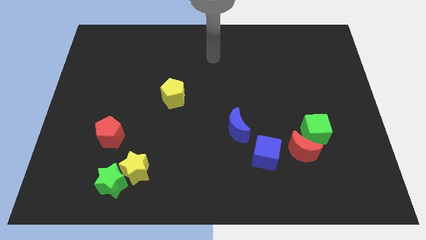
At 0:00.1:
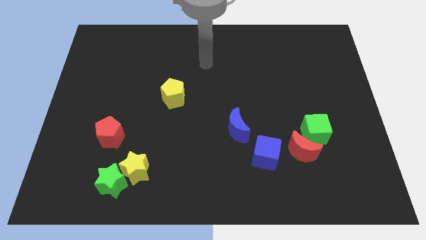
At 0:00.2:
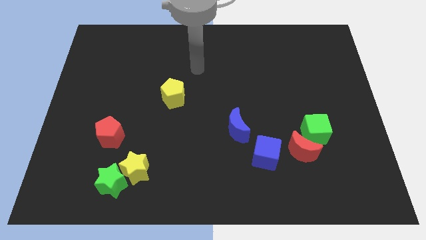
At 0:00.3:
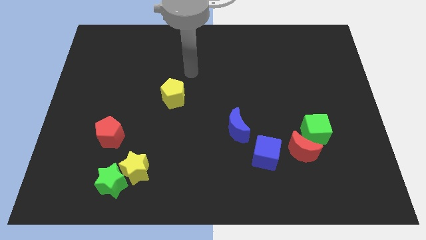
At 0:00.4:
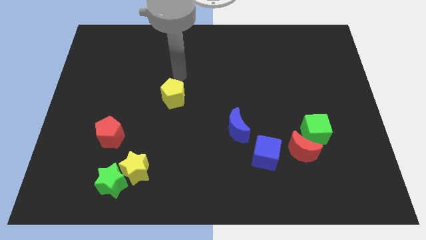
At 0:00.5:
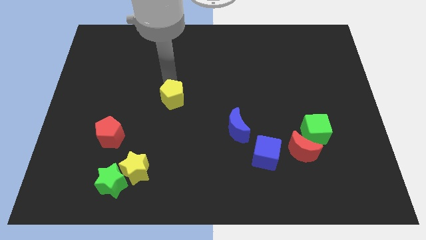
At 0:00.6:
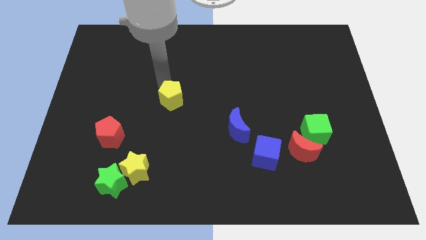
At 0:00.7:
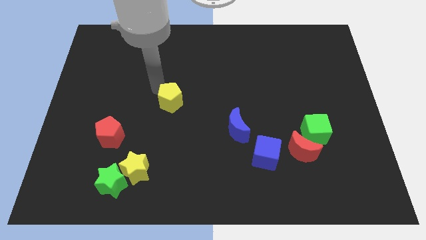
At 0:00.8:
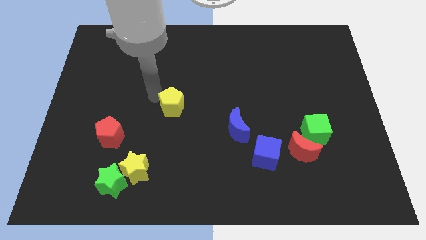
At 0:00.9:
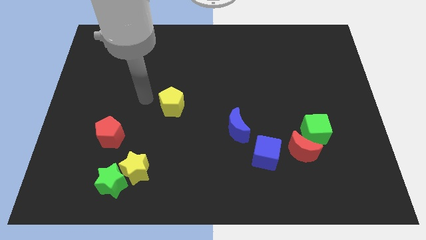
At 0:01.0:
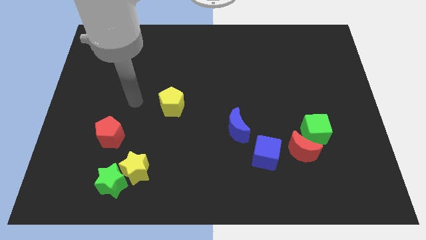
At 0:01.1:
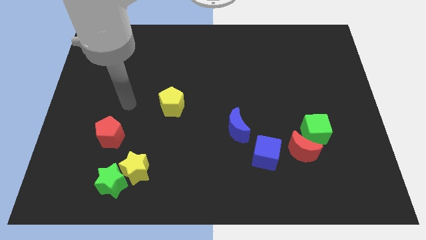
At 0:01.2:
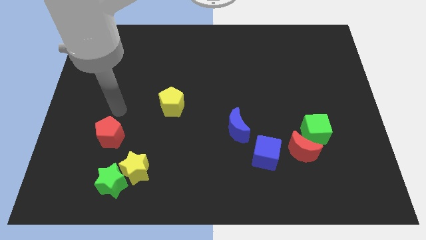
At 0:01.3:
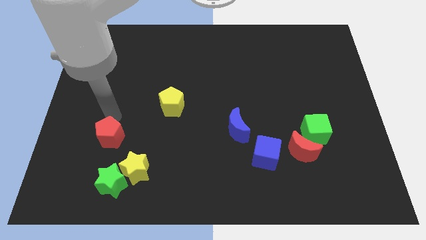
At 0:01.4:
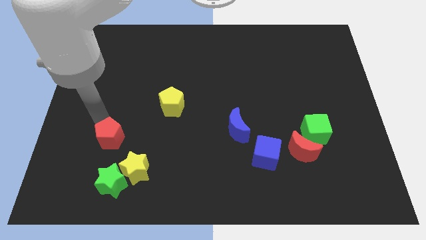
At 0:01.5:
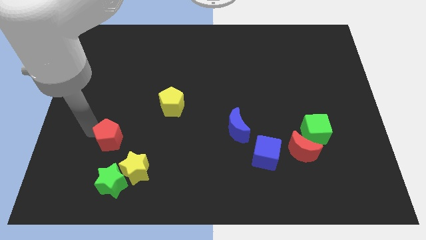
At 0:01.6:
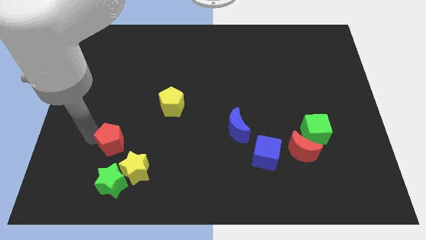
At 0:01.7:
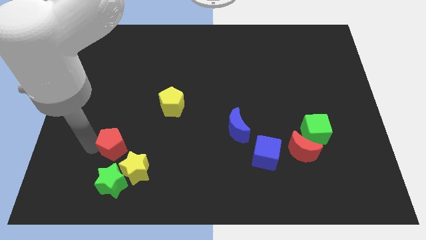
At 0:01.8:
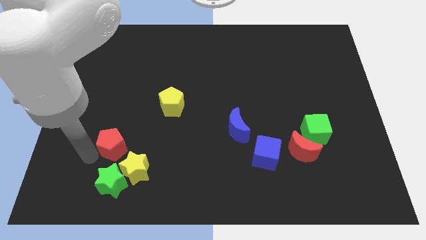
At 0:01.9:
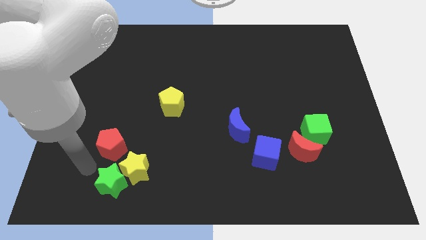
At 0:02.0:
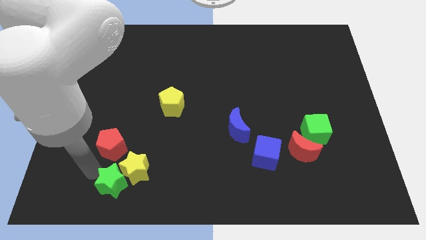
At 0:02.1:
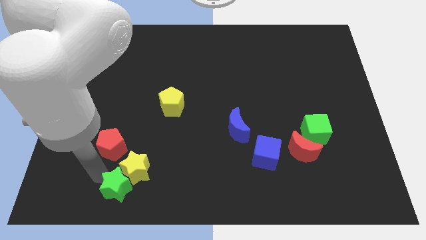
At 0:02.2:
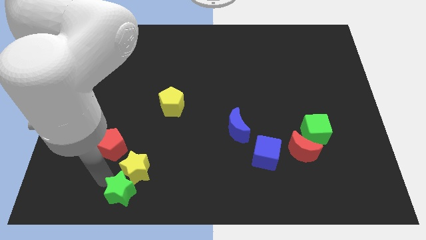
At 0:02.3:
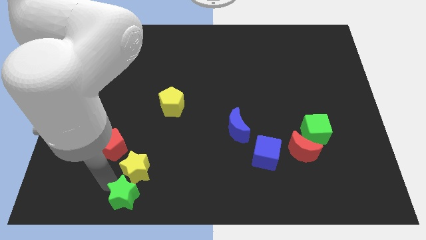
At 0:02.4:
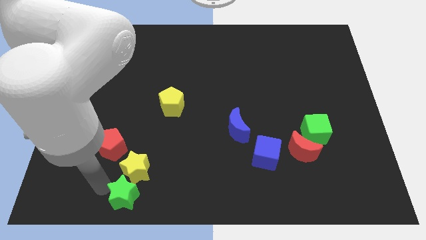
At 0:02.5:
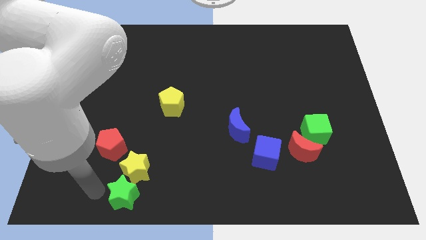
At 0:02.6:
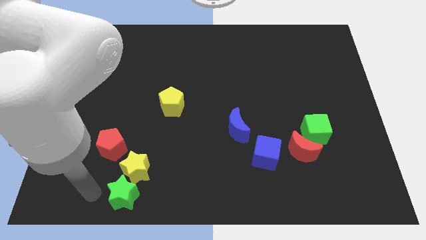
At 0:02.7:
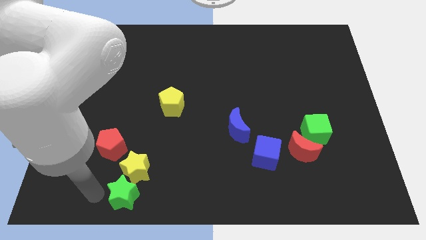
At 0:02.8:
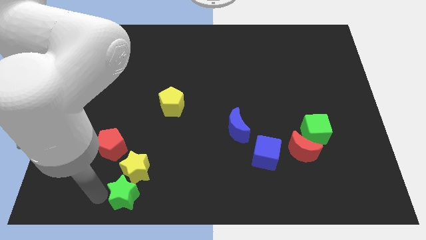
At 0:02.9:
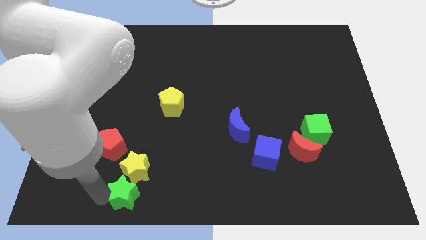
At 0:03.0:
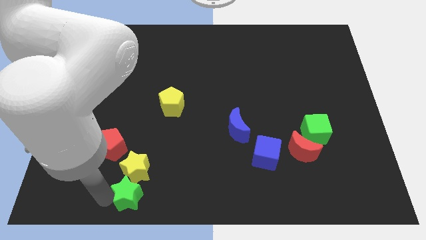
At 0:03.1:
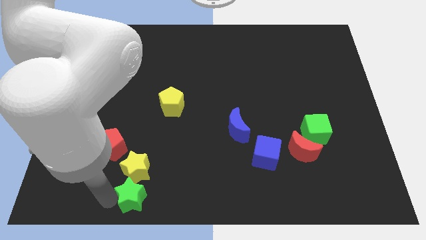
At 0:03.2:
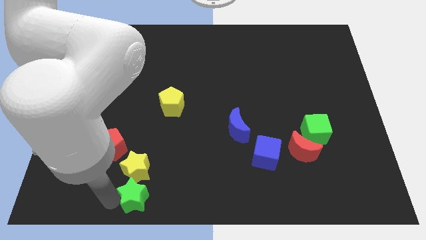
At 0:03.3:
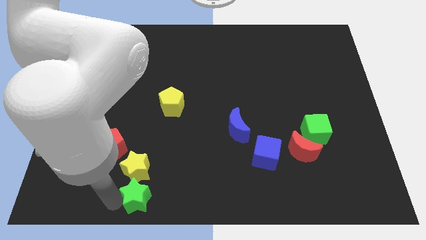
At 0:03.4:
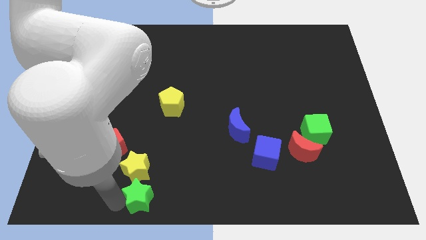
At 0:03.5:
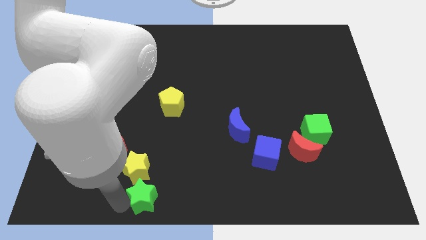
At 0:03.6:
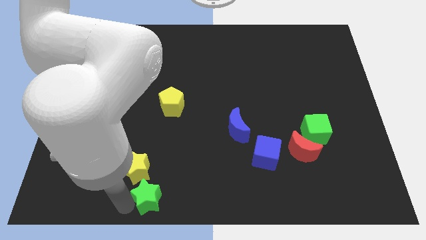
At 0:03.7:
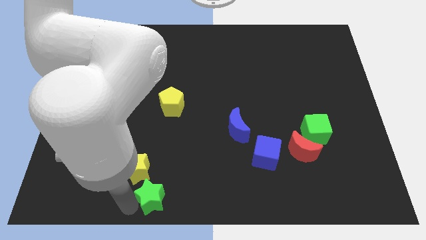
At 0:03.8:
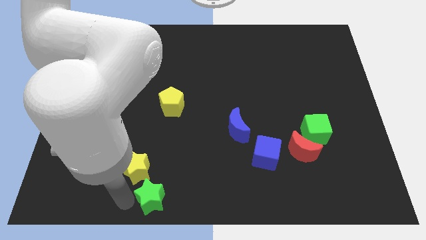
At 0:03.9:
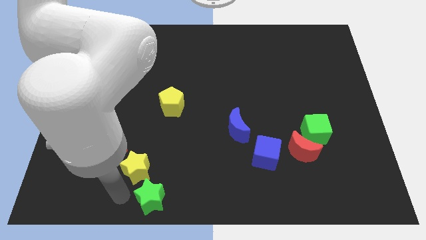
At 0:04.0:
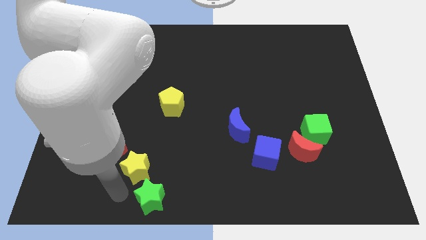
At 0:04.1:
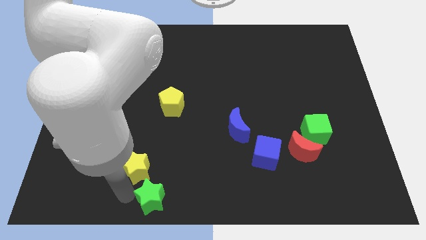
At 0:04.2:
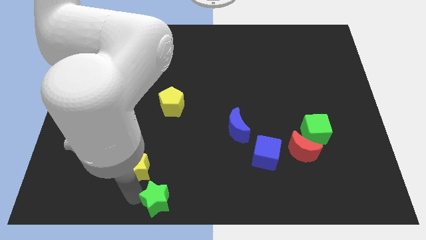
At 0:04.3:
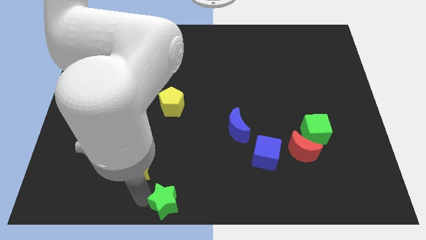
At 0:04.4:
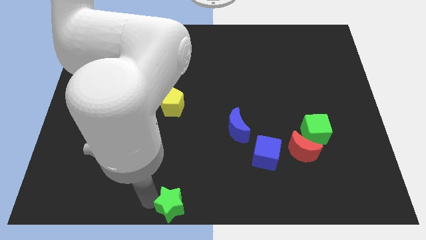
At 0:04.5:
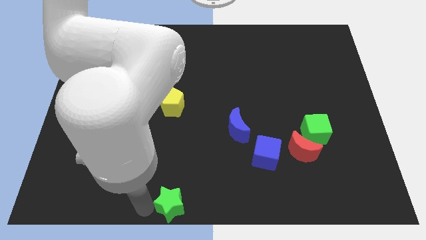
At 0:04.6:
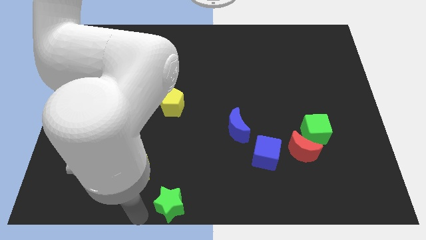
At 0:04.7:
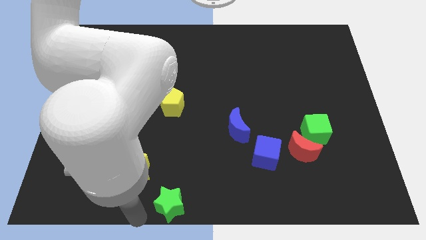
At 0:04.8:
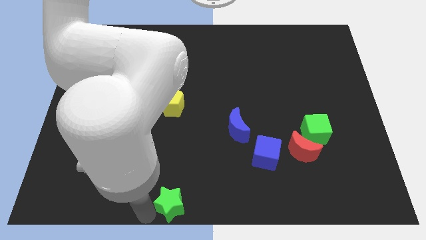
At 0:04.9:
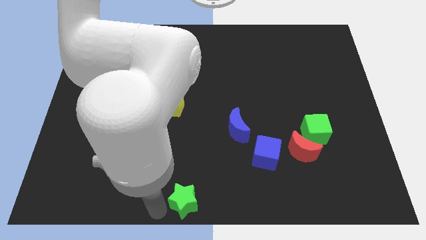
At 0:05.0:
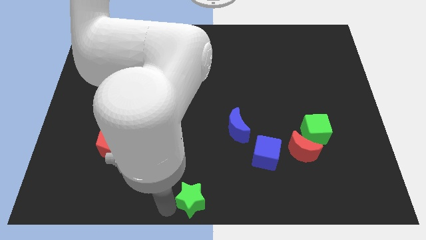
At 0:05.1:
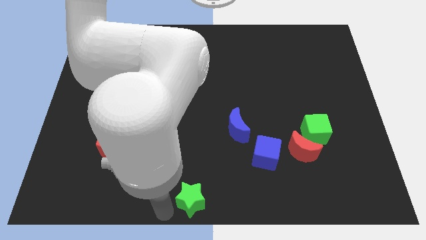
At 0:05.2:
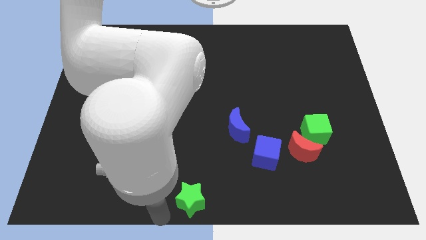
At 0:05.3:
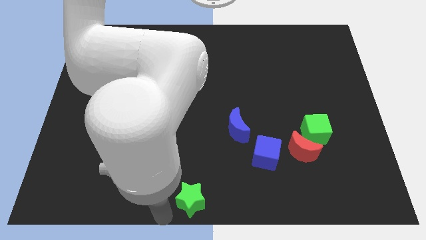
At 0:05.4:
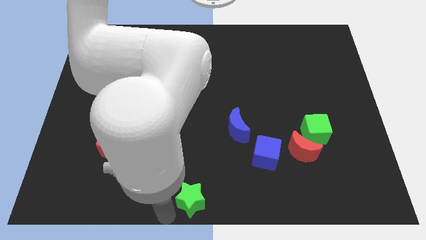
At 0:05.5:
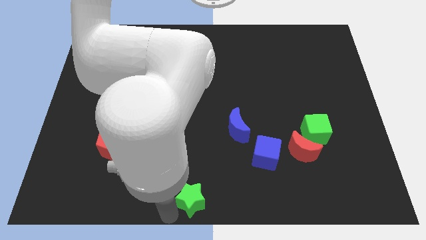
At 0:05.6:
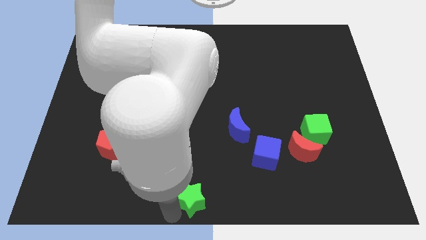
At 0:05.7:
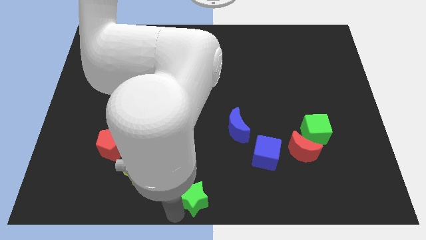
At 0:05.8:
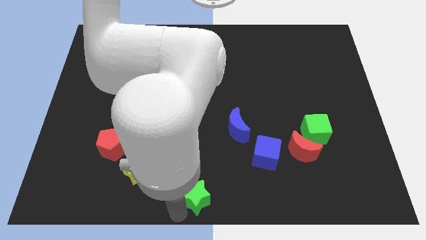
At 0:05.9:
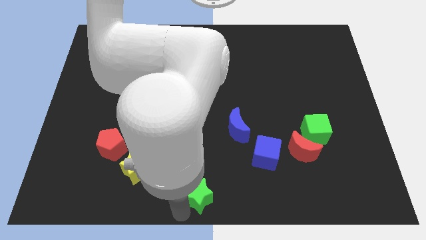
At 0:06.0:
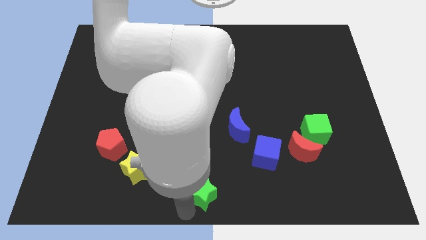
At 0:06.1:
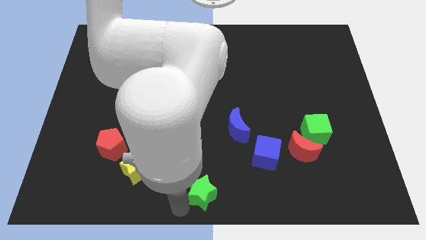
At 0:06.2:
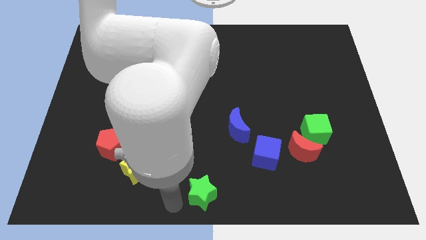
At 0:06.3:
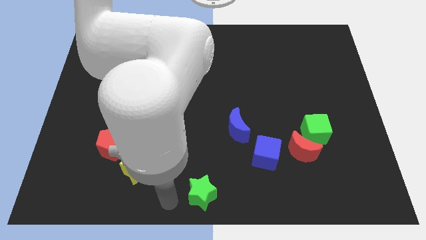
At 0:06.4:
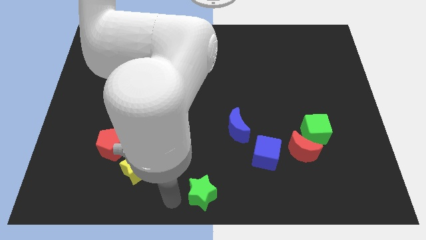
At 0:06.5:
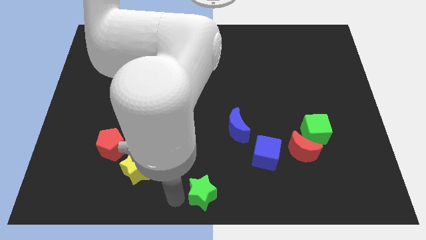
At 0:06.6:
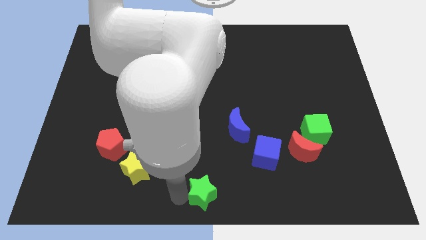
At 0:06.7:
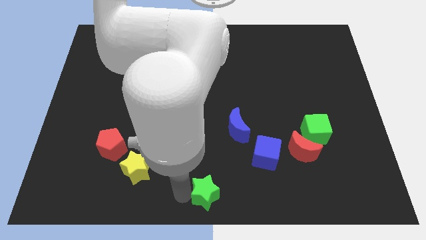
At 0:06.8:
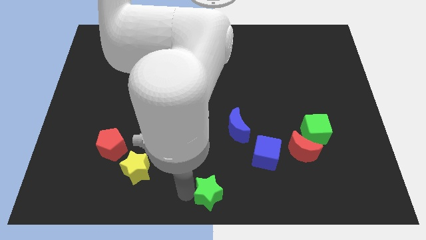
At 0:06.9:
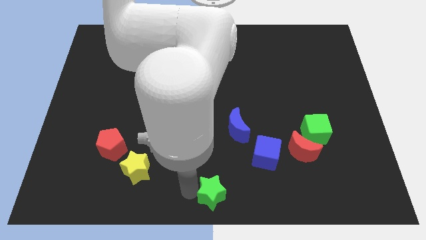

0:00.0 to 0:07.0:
move the green star right

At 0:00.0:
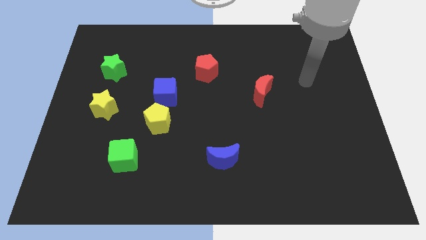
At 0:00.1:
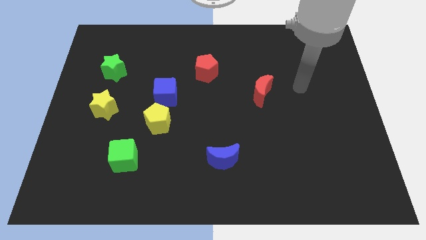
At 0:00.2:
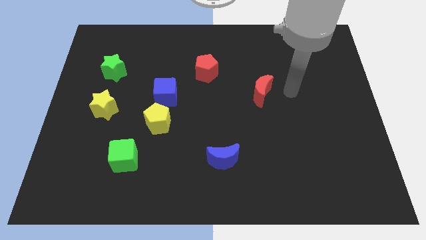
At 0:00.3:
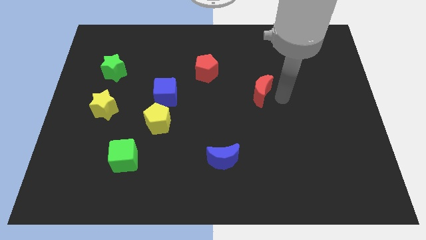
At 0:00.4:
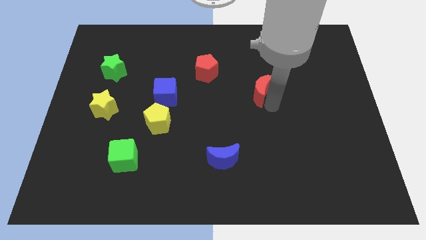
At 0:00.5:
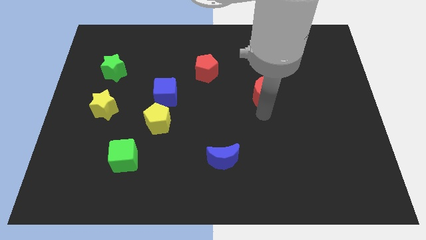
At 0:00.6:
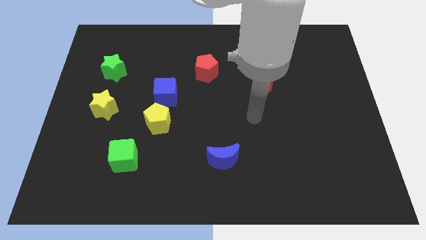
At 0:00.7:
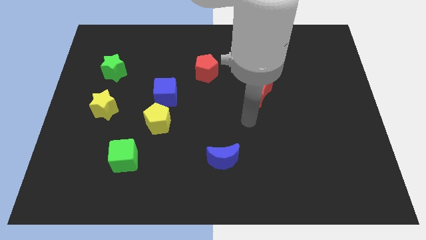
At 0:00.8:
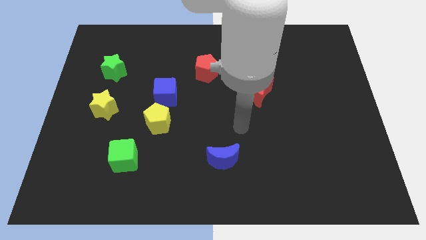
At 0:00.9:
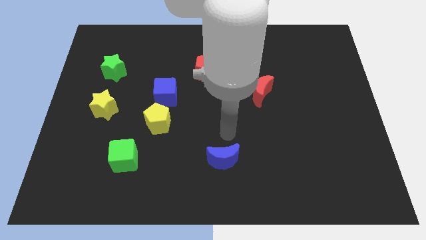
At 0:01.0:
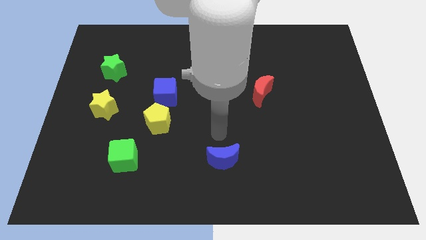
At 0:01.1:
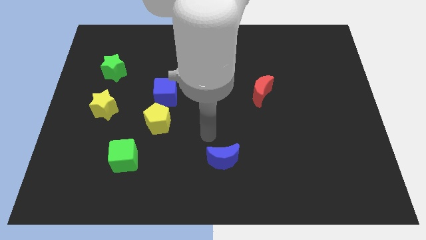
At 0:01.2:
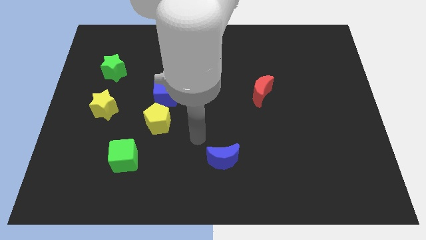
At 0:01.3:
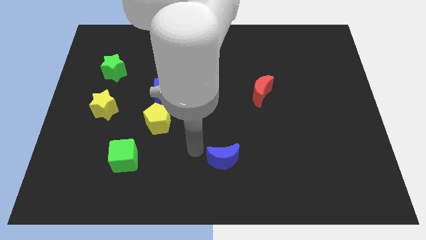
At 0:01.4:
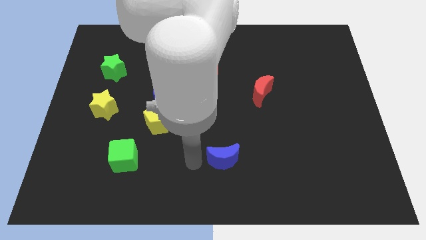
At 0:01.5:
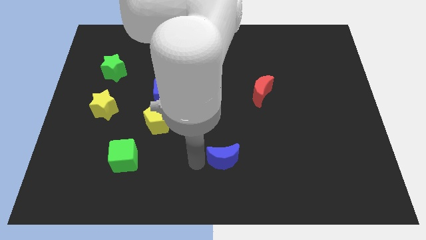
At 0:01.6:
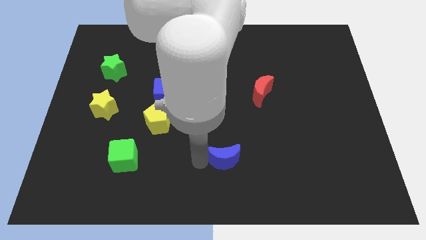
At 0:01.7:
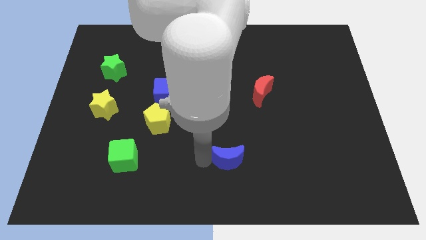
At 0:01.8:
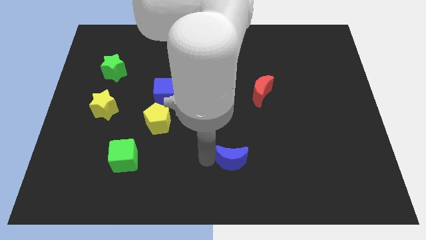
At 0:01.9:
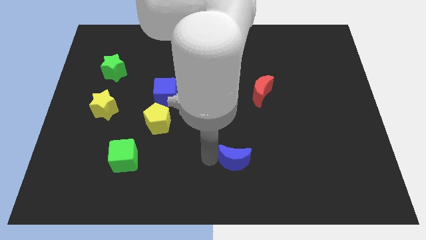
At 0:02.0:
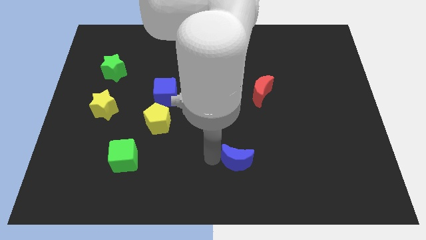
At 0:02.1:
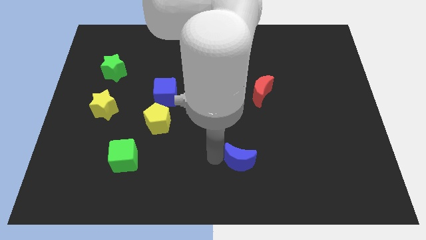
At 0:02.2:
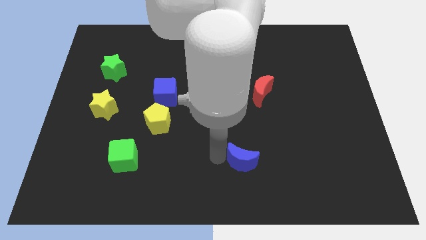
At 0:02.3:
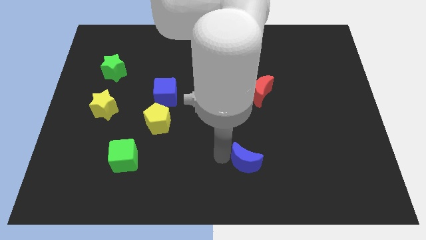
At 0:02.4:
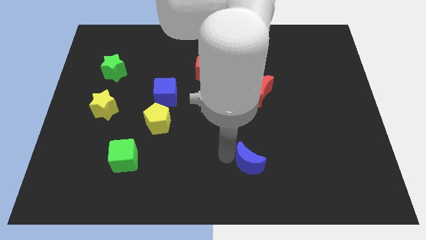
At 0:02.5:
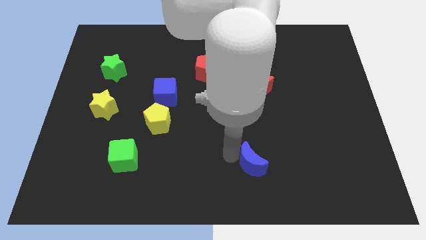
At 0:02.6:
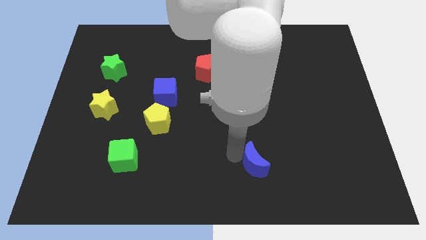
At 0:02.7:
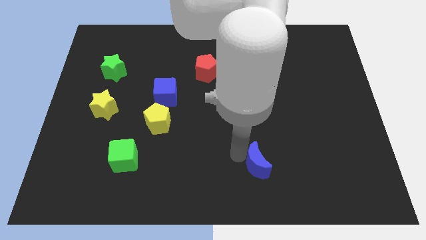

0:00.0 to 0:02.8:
slightly move the blue moon to the right
